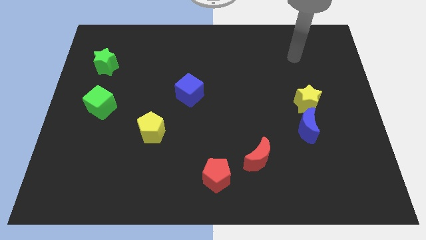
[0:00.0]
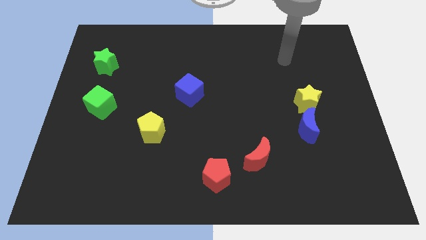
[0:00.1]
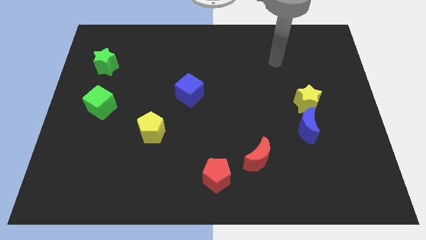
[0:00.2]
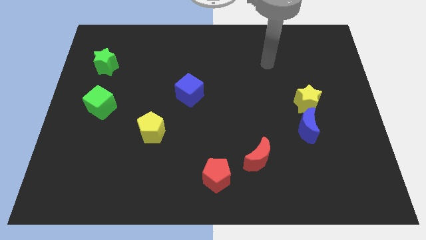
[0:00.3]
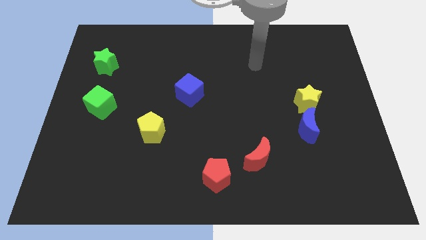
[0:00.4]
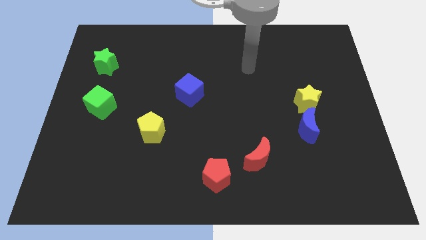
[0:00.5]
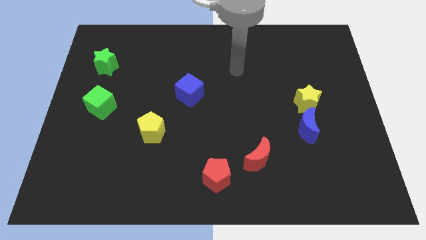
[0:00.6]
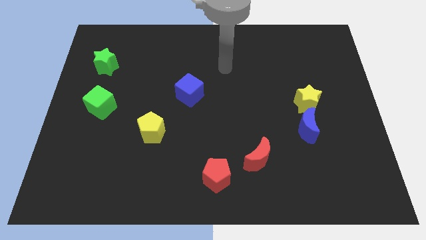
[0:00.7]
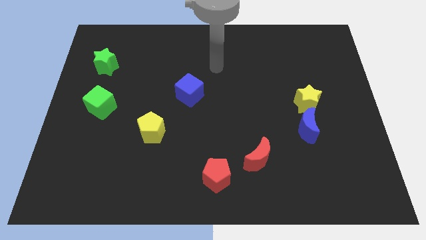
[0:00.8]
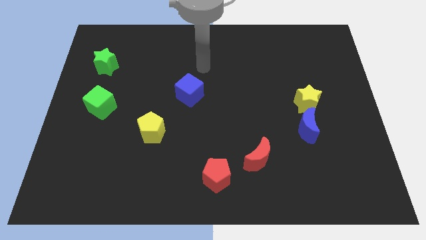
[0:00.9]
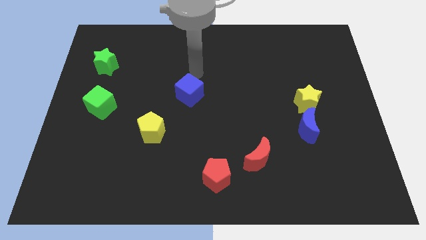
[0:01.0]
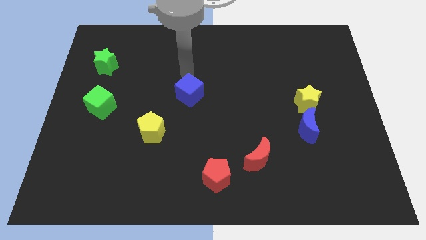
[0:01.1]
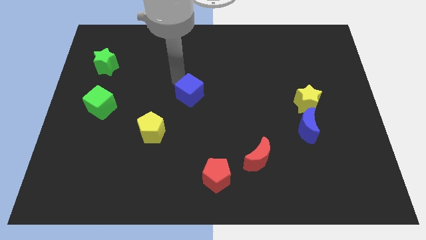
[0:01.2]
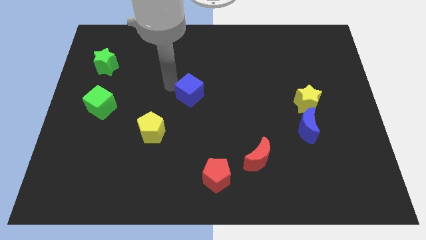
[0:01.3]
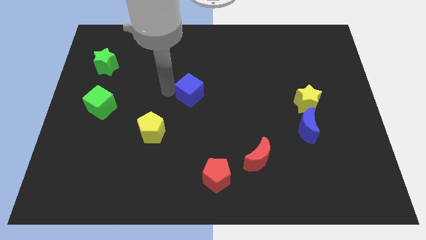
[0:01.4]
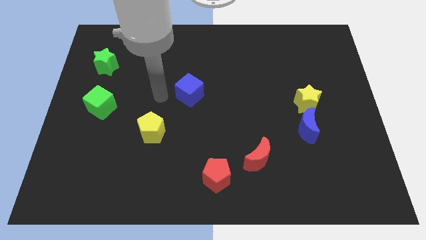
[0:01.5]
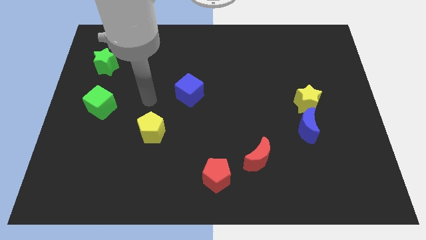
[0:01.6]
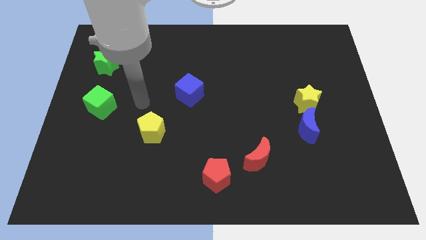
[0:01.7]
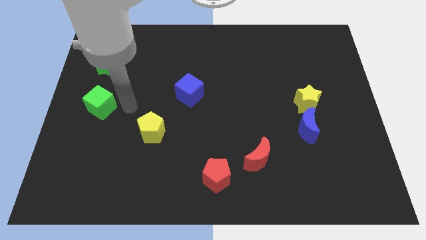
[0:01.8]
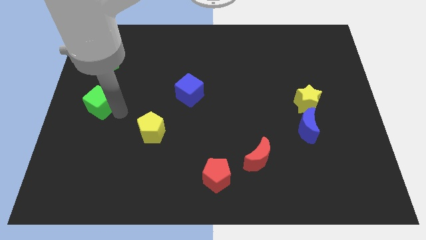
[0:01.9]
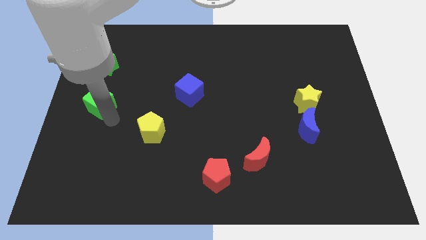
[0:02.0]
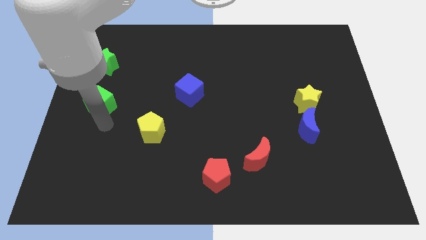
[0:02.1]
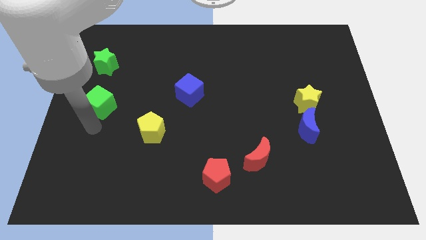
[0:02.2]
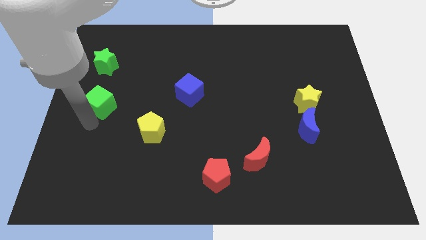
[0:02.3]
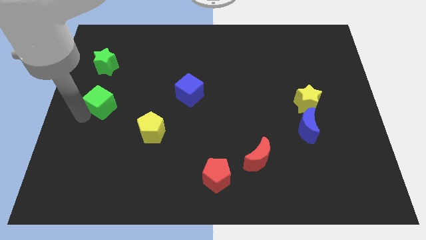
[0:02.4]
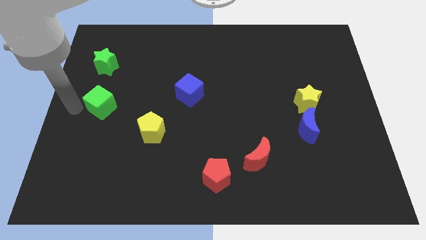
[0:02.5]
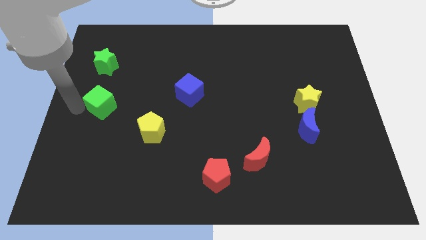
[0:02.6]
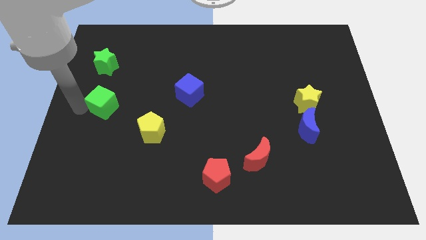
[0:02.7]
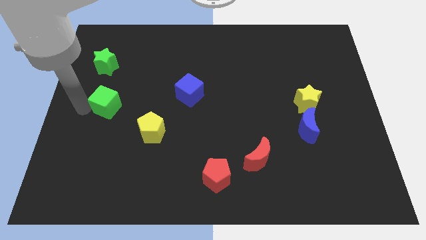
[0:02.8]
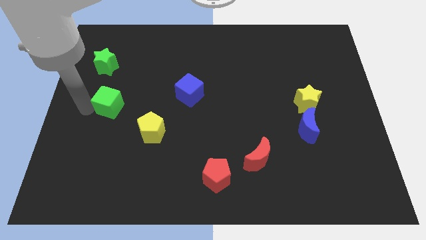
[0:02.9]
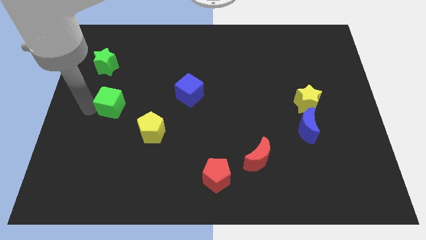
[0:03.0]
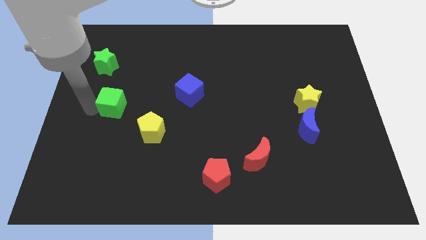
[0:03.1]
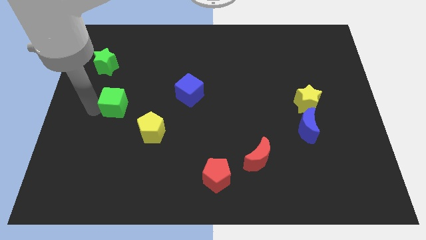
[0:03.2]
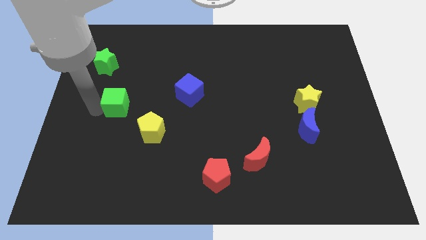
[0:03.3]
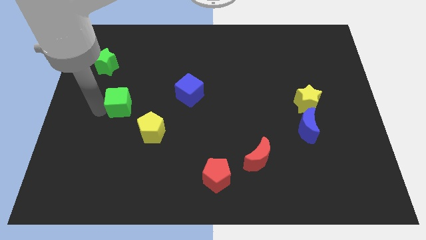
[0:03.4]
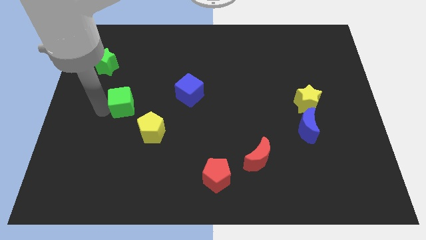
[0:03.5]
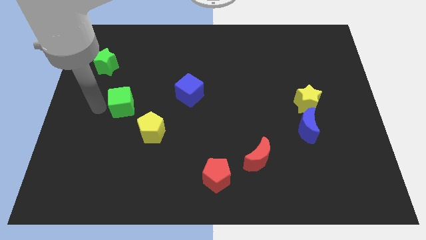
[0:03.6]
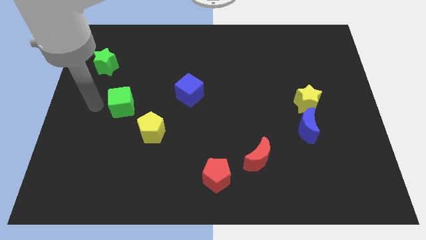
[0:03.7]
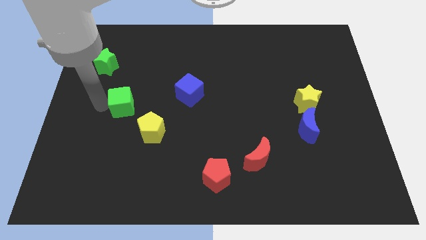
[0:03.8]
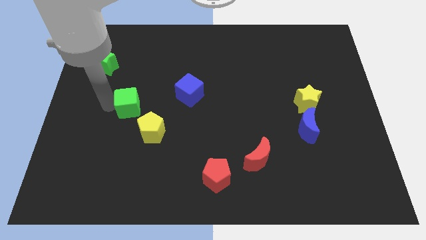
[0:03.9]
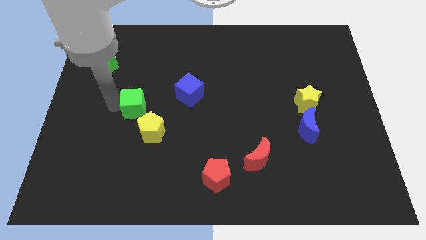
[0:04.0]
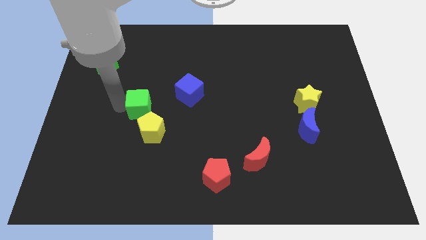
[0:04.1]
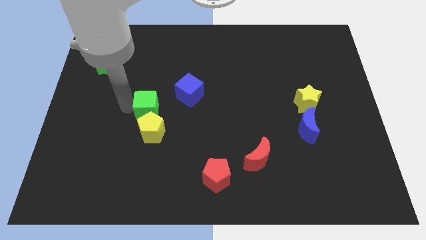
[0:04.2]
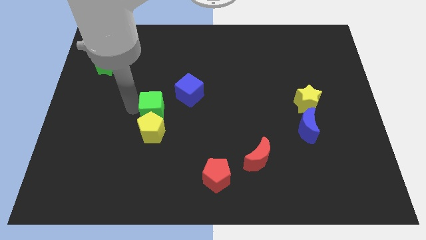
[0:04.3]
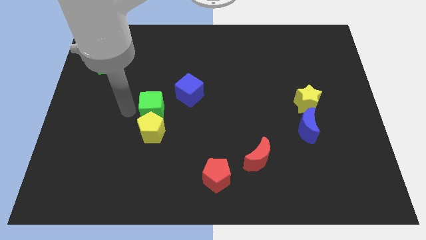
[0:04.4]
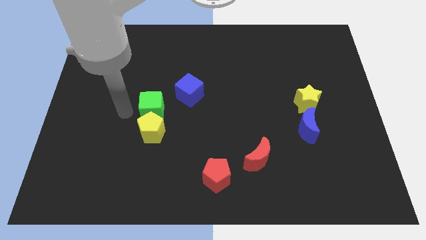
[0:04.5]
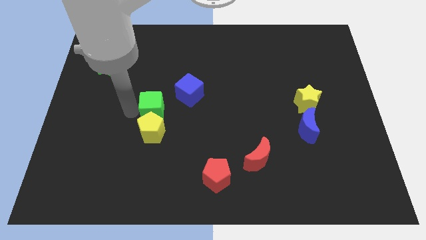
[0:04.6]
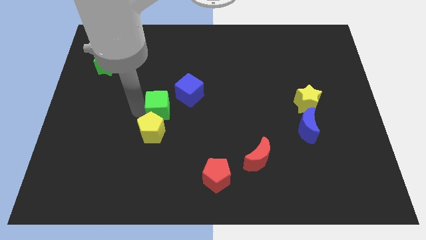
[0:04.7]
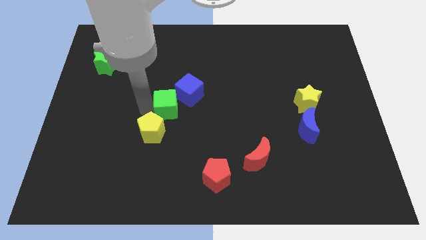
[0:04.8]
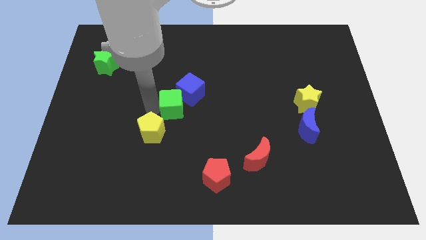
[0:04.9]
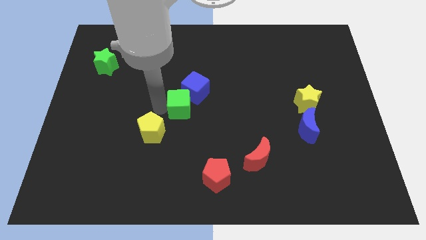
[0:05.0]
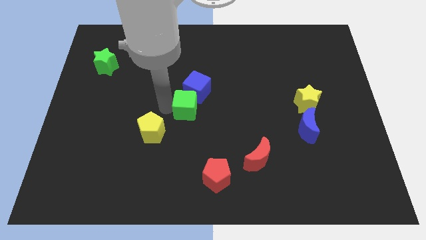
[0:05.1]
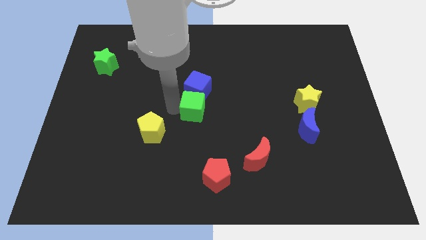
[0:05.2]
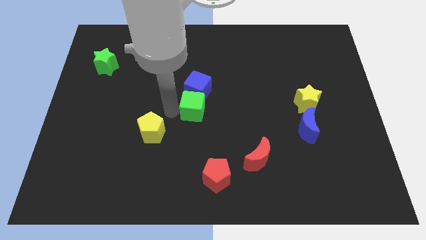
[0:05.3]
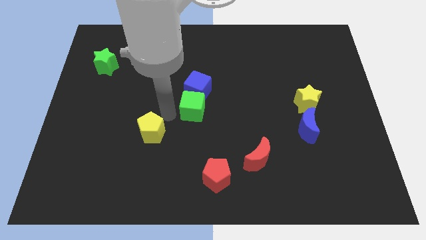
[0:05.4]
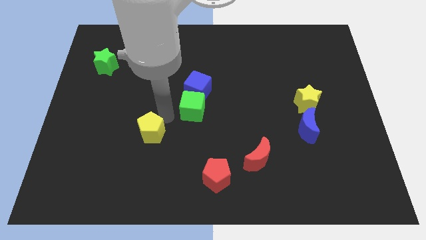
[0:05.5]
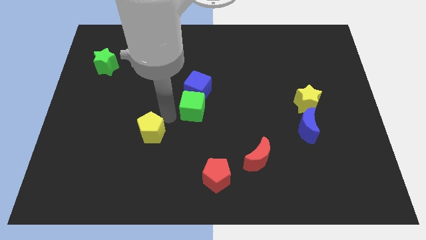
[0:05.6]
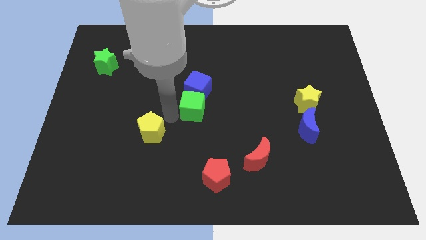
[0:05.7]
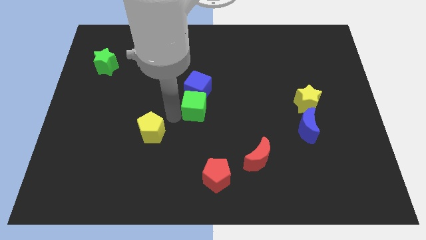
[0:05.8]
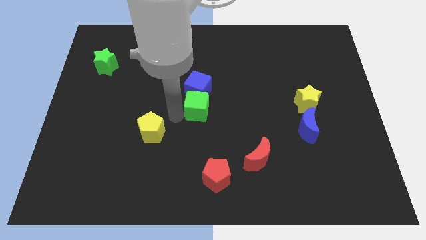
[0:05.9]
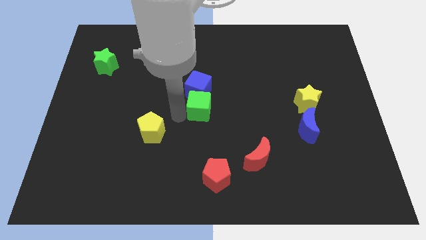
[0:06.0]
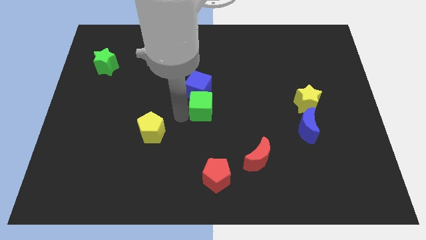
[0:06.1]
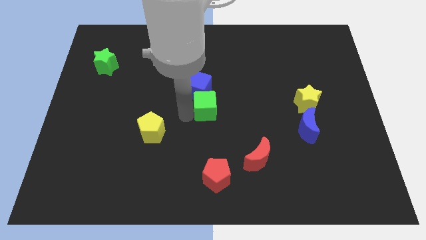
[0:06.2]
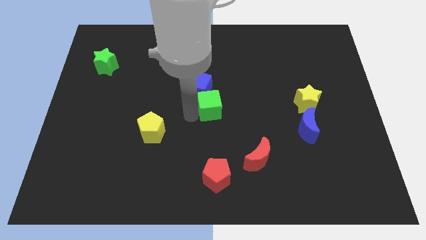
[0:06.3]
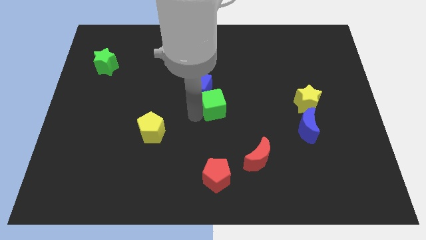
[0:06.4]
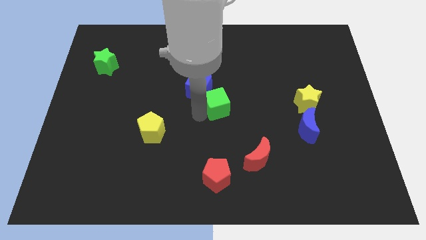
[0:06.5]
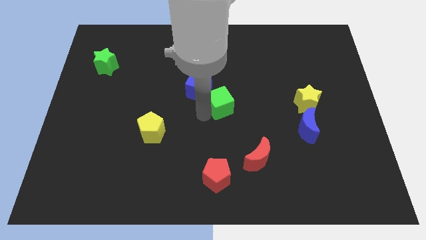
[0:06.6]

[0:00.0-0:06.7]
move the green cube just right of the blue cube

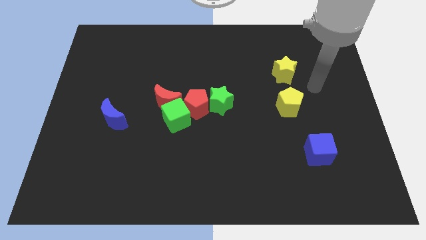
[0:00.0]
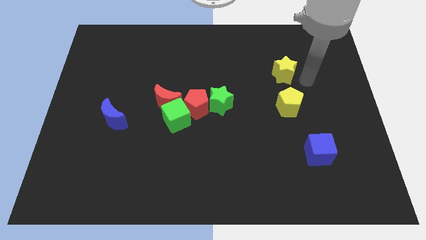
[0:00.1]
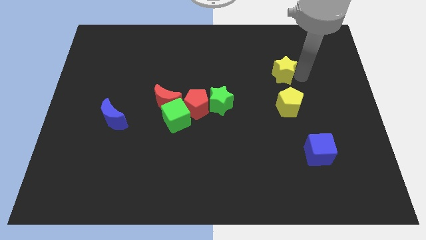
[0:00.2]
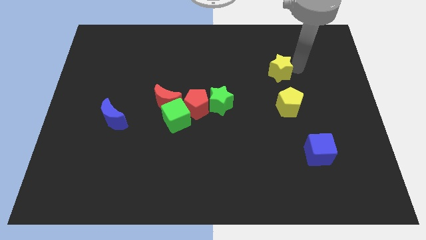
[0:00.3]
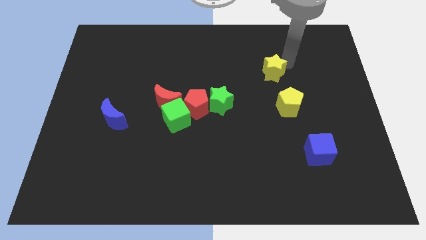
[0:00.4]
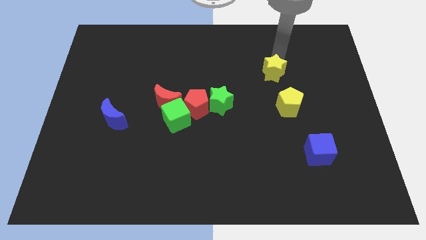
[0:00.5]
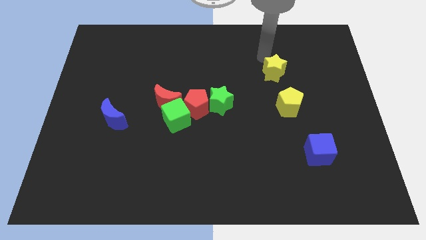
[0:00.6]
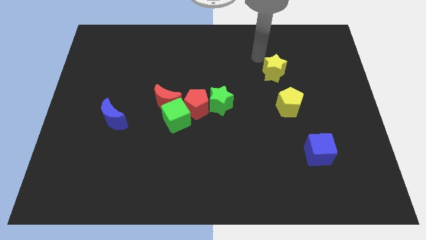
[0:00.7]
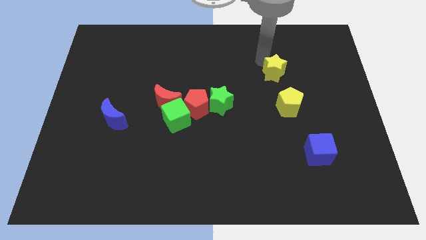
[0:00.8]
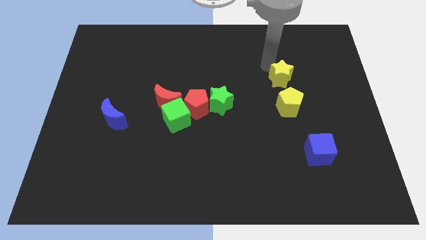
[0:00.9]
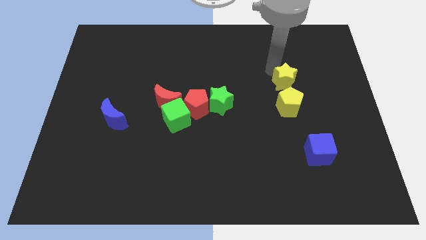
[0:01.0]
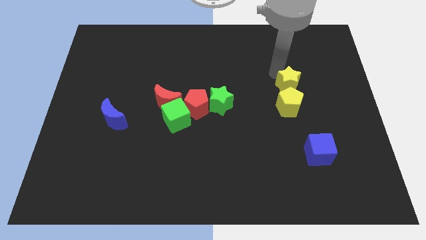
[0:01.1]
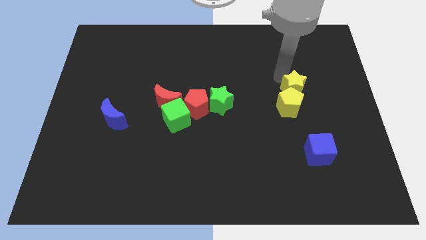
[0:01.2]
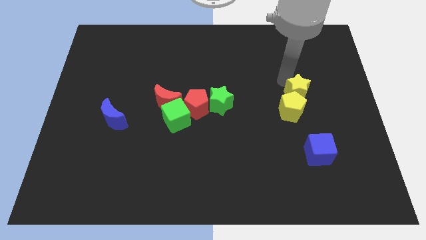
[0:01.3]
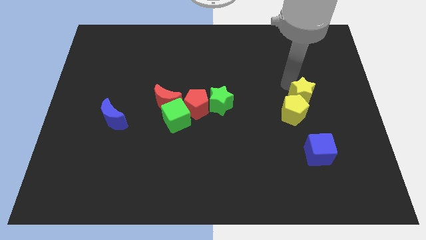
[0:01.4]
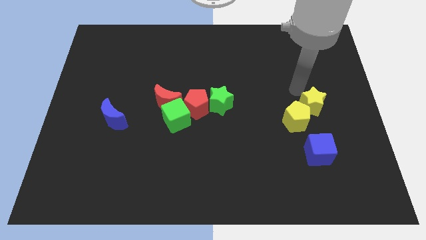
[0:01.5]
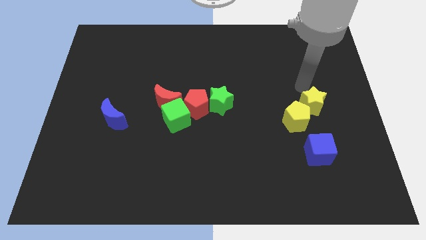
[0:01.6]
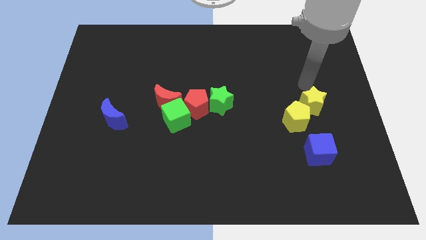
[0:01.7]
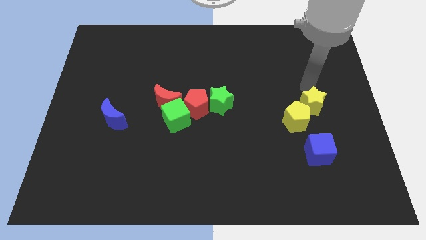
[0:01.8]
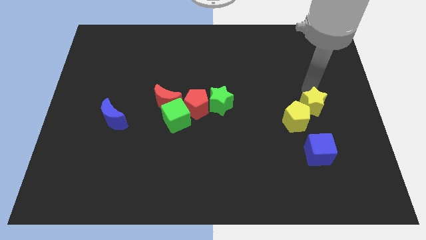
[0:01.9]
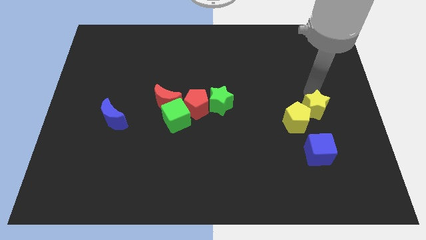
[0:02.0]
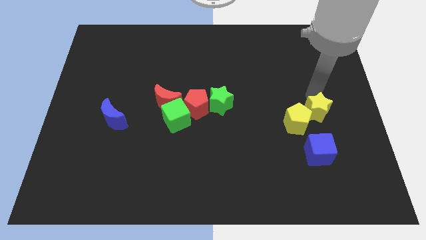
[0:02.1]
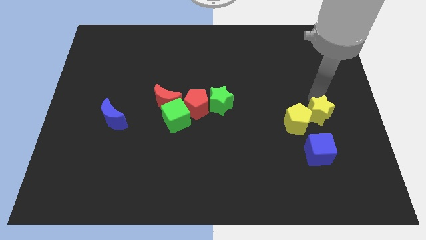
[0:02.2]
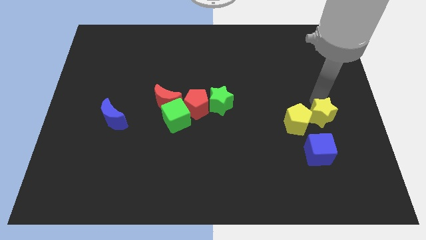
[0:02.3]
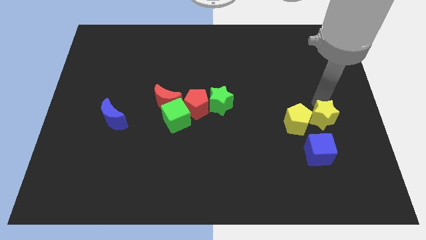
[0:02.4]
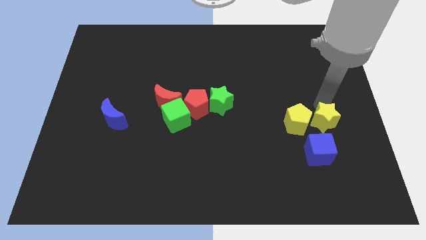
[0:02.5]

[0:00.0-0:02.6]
slide the yellow star diagonally down and to the right of the yellow pentagon
